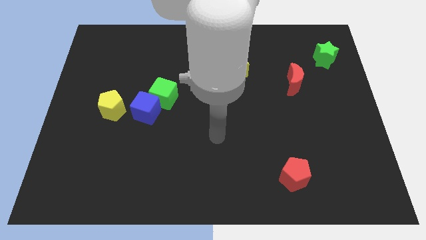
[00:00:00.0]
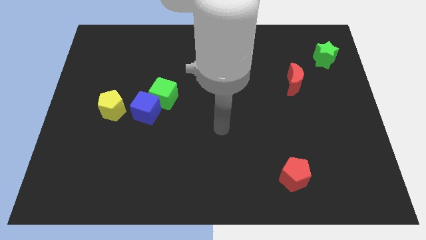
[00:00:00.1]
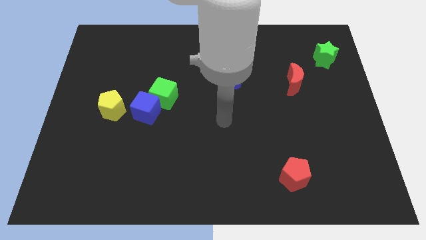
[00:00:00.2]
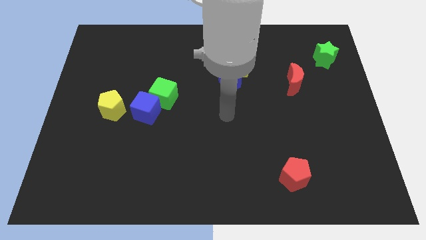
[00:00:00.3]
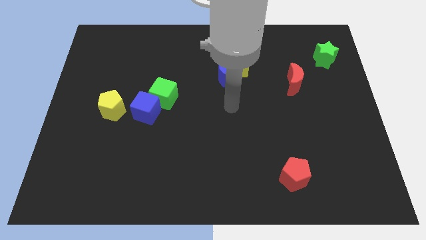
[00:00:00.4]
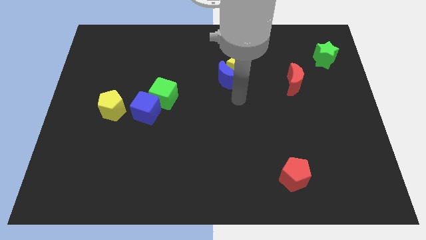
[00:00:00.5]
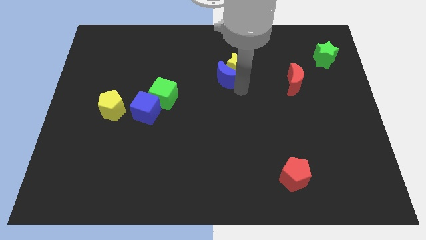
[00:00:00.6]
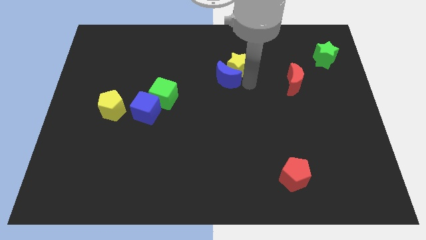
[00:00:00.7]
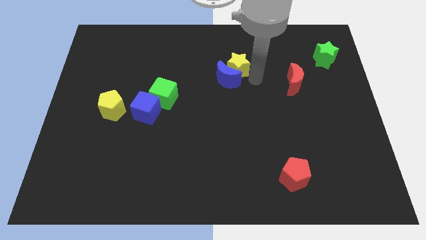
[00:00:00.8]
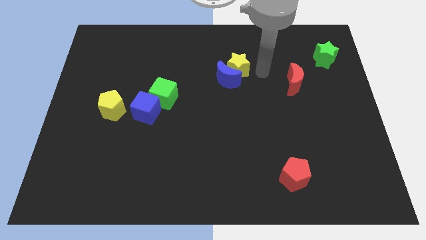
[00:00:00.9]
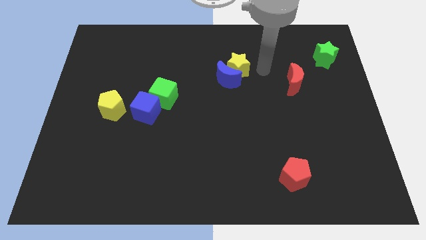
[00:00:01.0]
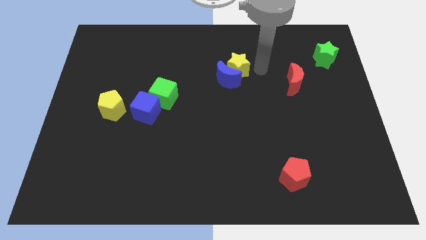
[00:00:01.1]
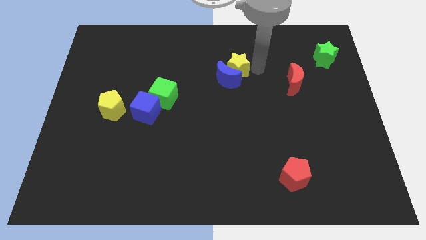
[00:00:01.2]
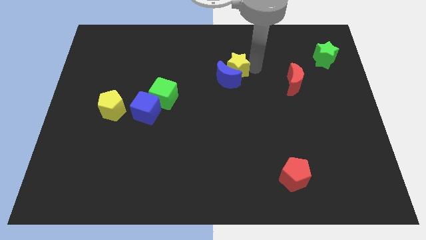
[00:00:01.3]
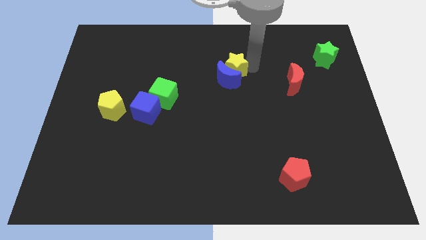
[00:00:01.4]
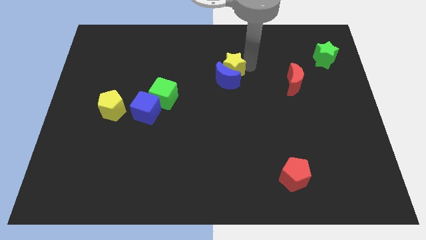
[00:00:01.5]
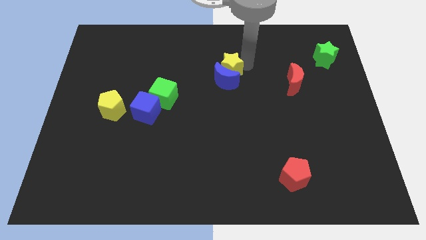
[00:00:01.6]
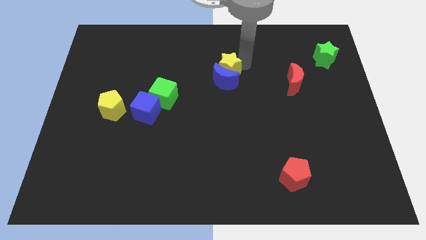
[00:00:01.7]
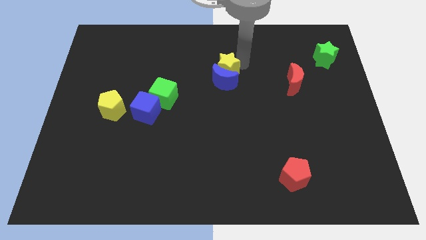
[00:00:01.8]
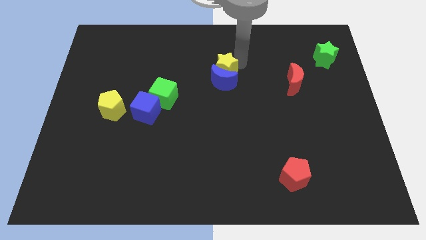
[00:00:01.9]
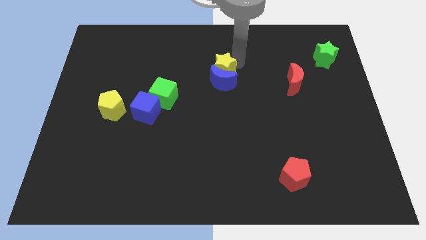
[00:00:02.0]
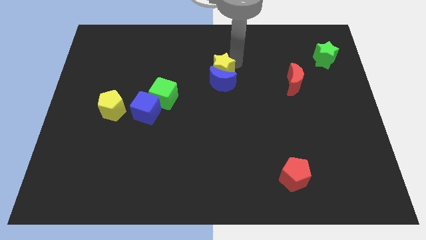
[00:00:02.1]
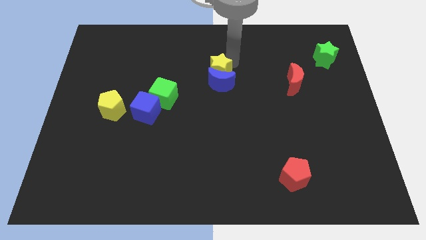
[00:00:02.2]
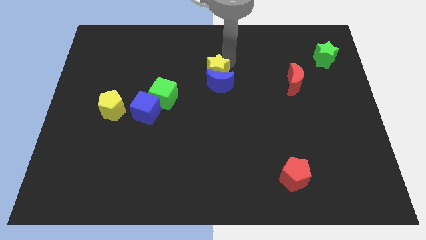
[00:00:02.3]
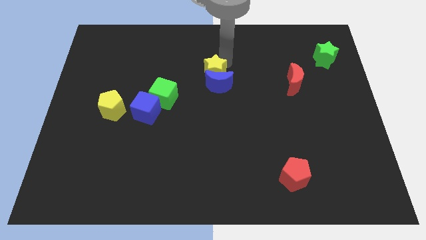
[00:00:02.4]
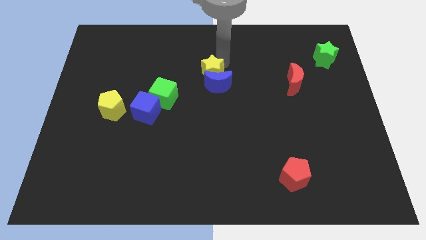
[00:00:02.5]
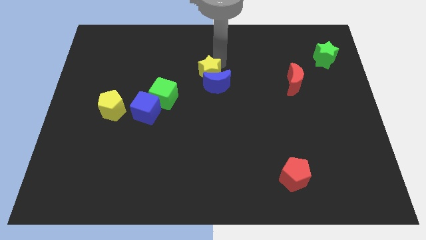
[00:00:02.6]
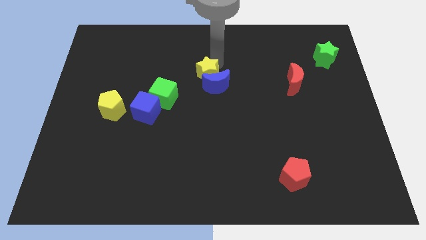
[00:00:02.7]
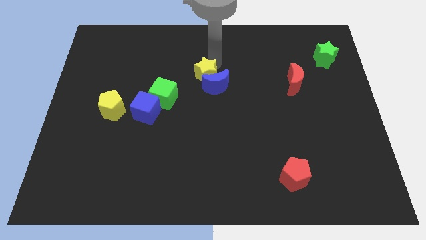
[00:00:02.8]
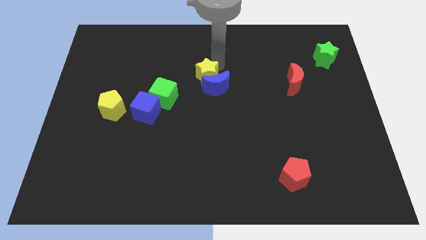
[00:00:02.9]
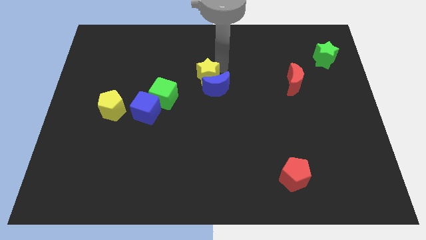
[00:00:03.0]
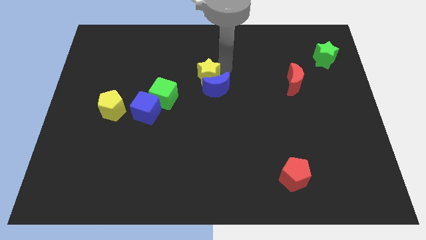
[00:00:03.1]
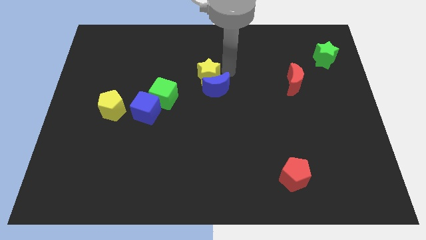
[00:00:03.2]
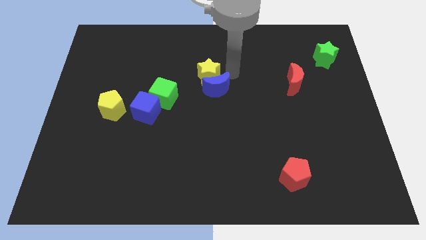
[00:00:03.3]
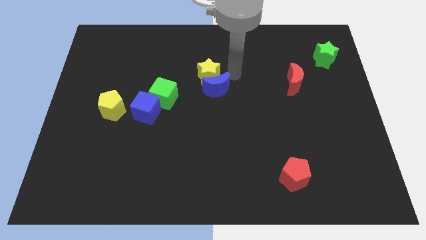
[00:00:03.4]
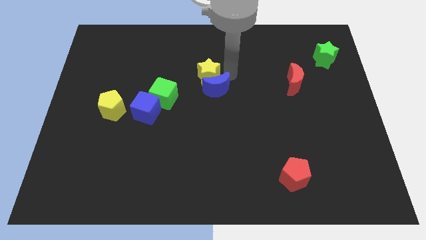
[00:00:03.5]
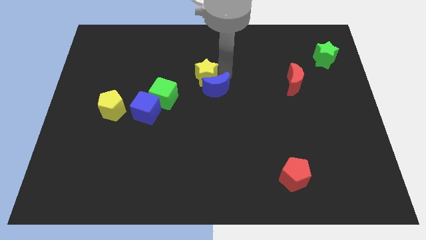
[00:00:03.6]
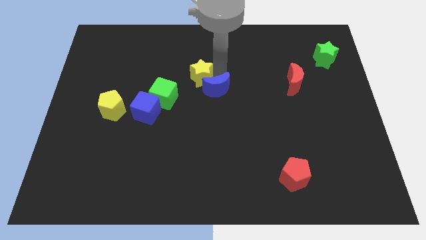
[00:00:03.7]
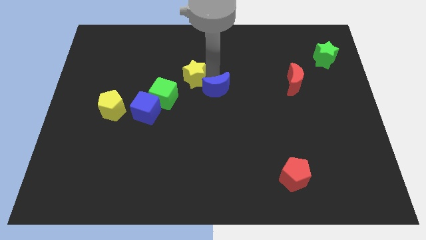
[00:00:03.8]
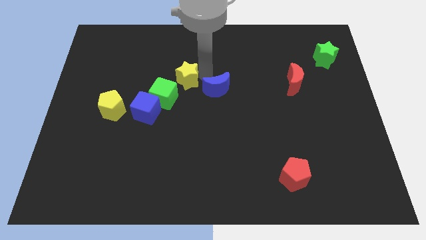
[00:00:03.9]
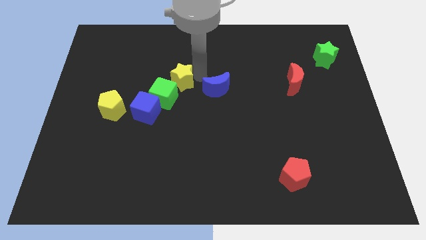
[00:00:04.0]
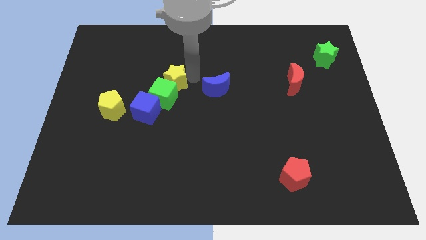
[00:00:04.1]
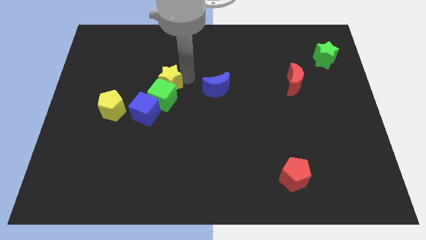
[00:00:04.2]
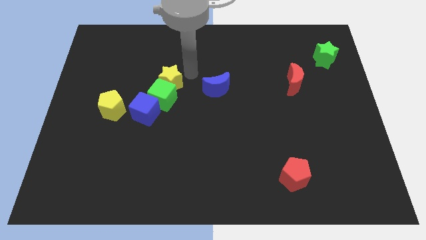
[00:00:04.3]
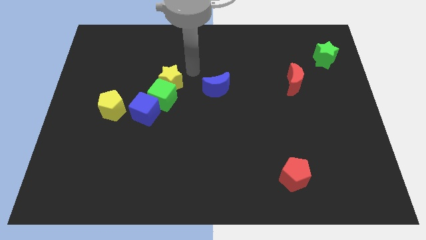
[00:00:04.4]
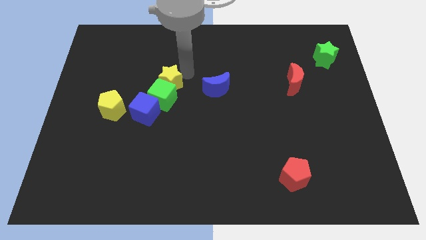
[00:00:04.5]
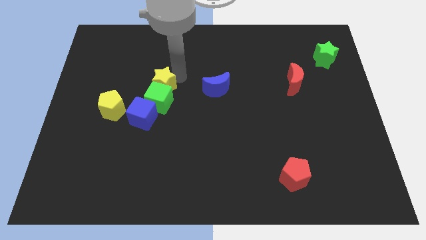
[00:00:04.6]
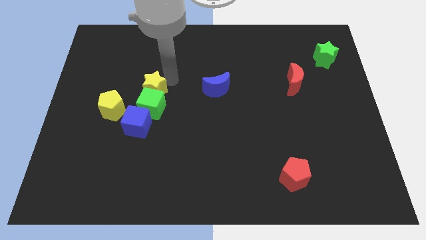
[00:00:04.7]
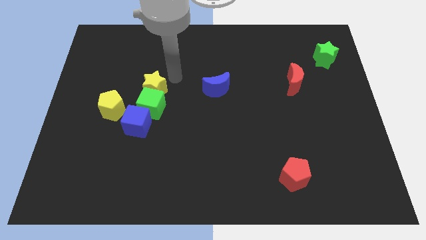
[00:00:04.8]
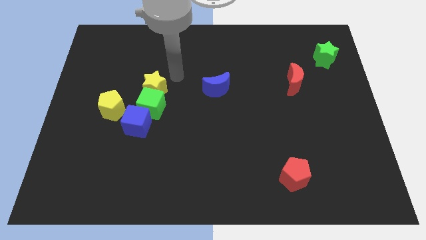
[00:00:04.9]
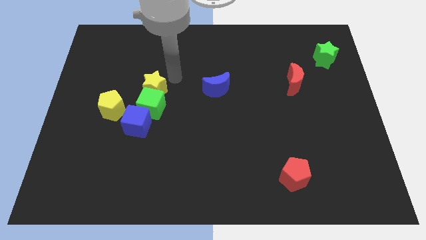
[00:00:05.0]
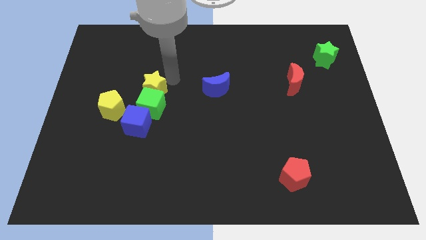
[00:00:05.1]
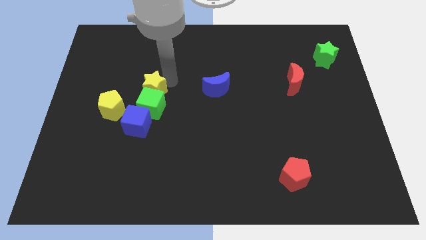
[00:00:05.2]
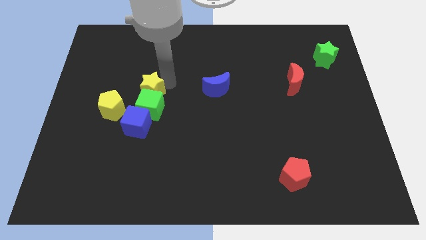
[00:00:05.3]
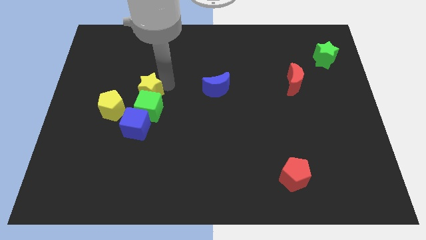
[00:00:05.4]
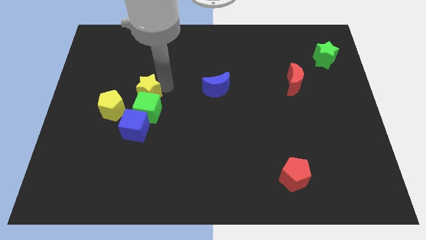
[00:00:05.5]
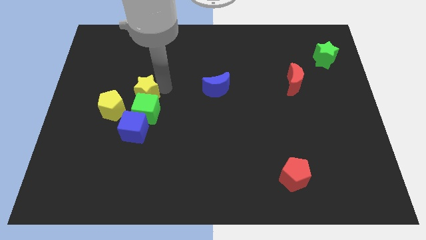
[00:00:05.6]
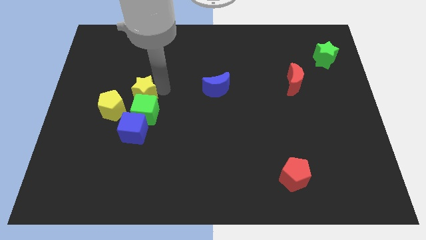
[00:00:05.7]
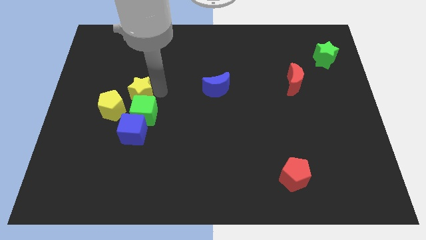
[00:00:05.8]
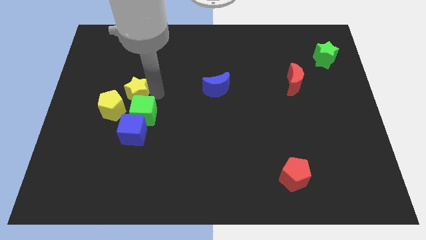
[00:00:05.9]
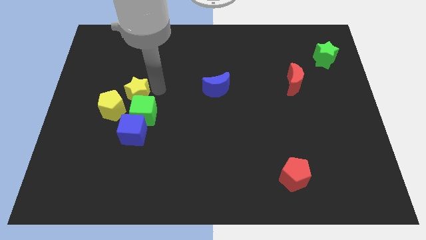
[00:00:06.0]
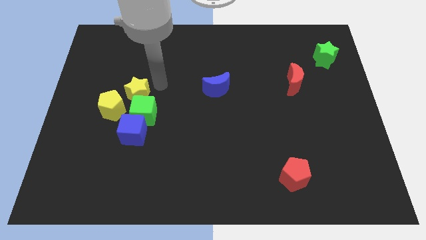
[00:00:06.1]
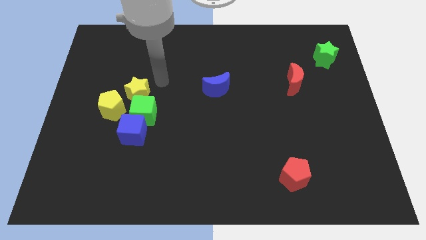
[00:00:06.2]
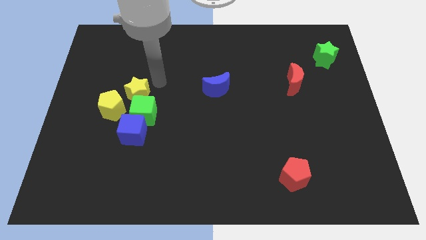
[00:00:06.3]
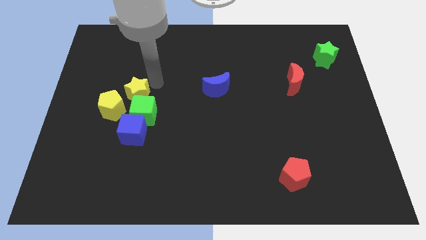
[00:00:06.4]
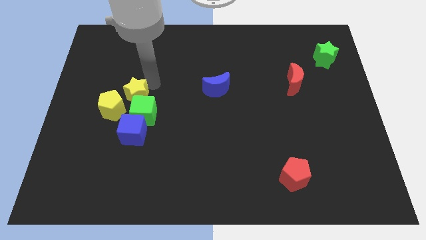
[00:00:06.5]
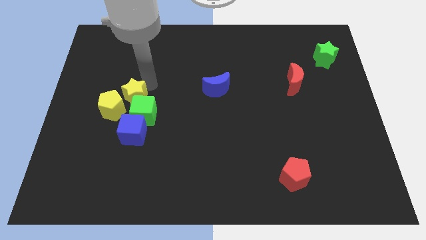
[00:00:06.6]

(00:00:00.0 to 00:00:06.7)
put the yellow star next to the yellow pentagon

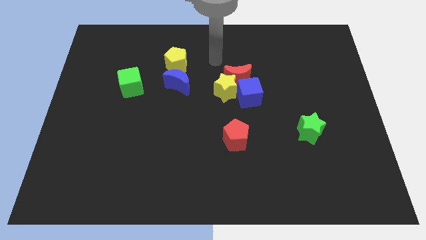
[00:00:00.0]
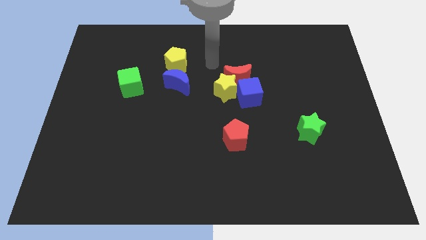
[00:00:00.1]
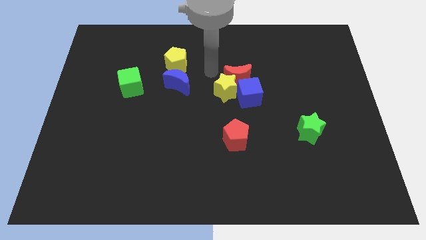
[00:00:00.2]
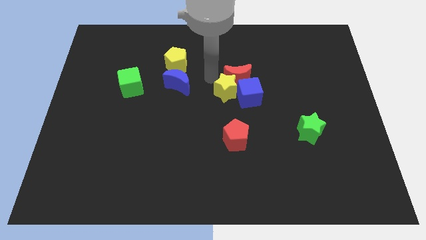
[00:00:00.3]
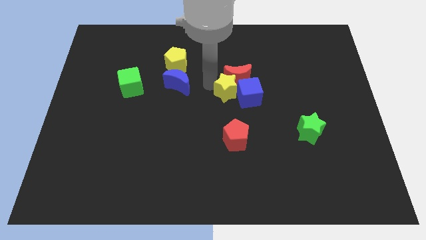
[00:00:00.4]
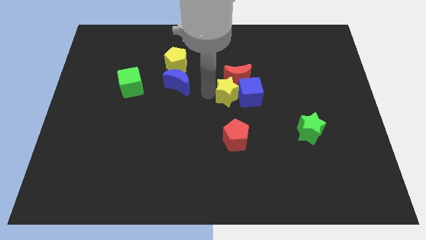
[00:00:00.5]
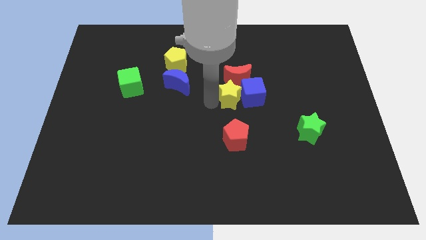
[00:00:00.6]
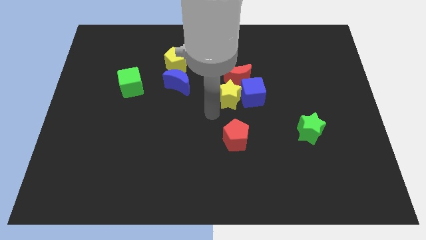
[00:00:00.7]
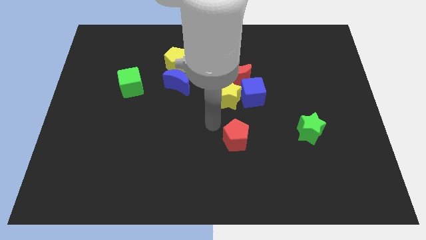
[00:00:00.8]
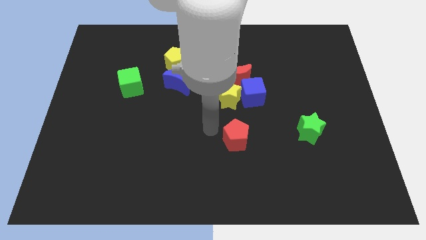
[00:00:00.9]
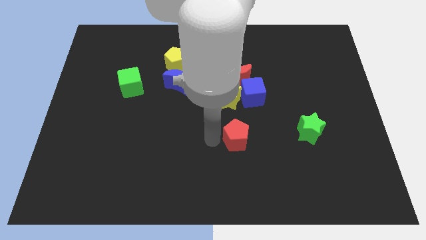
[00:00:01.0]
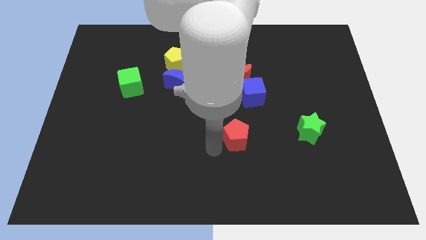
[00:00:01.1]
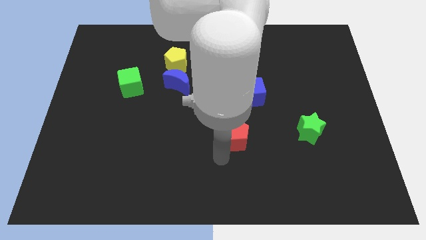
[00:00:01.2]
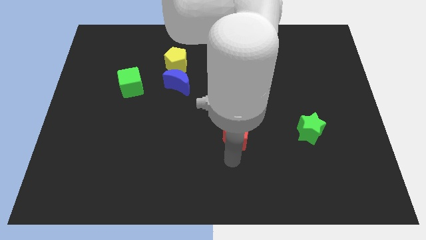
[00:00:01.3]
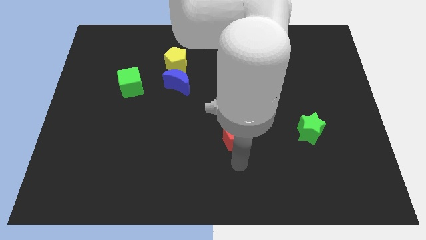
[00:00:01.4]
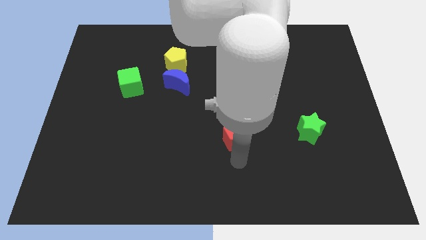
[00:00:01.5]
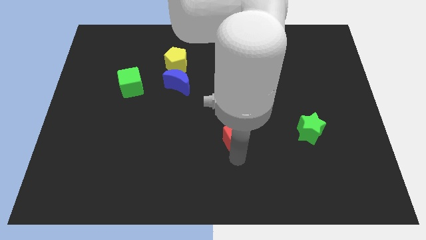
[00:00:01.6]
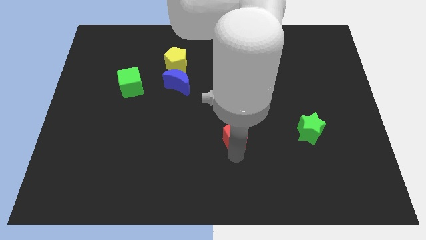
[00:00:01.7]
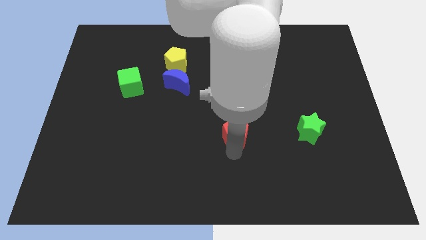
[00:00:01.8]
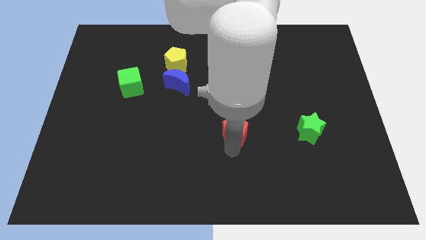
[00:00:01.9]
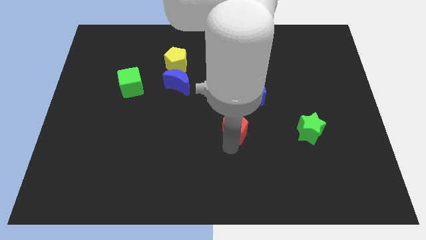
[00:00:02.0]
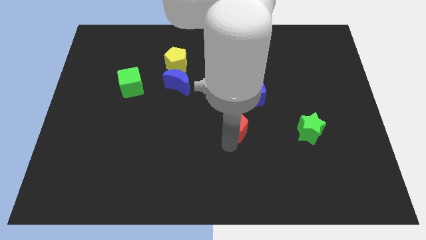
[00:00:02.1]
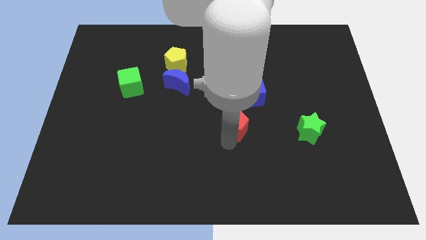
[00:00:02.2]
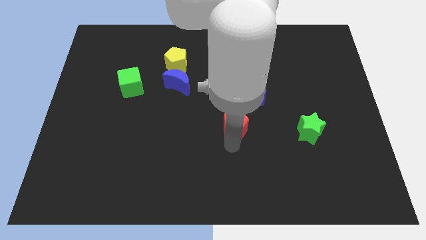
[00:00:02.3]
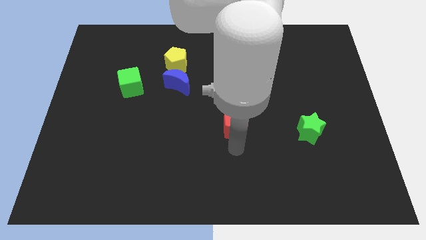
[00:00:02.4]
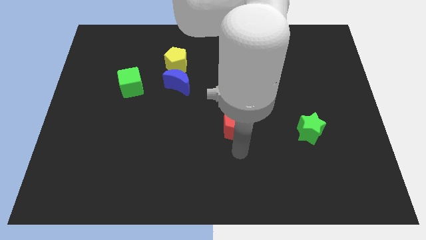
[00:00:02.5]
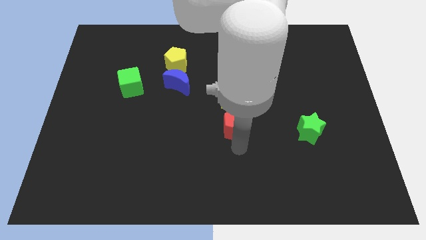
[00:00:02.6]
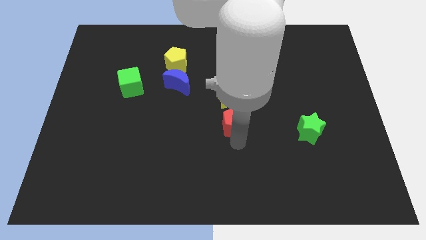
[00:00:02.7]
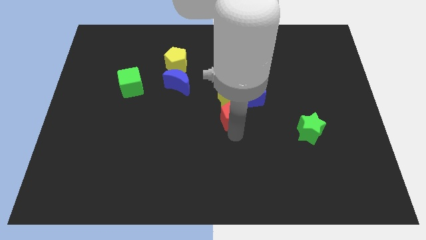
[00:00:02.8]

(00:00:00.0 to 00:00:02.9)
push the red pentagon close to the yellow star
